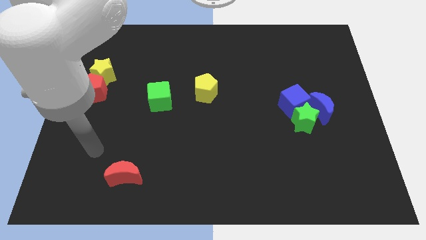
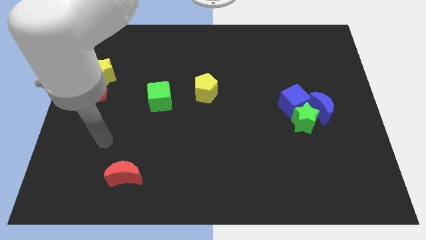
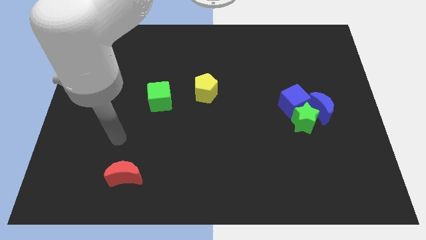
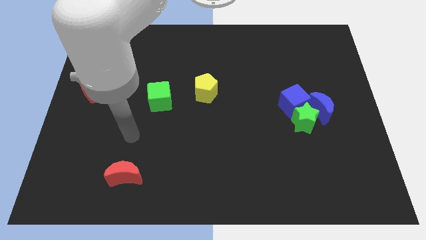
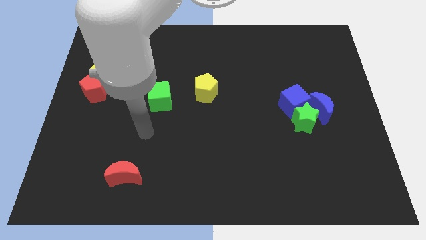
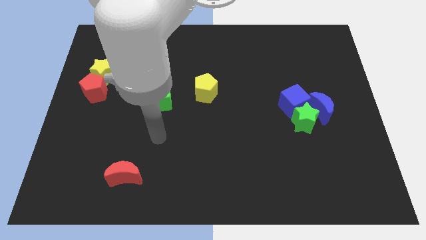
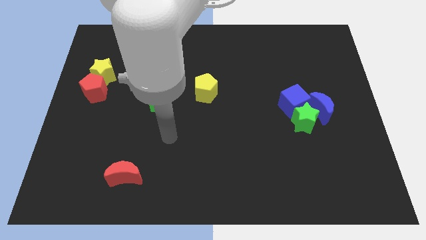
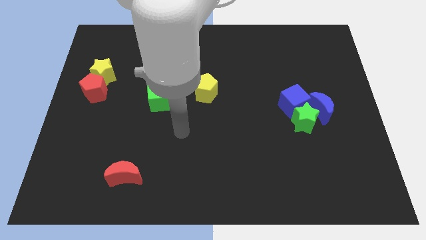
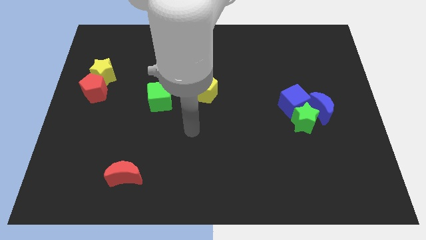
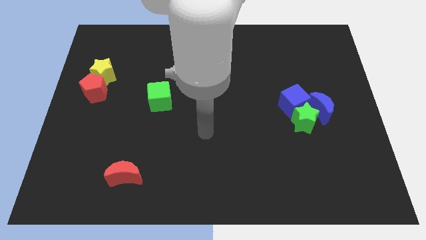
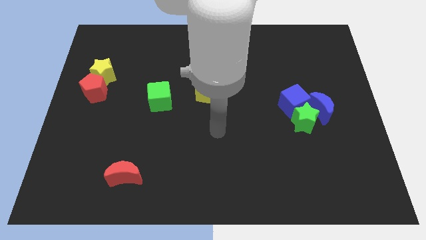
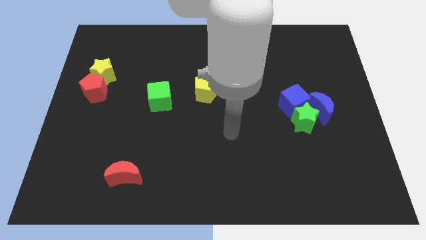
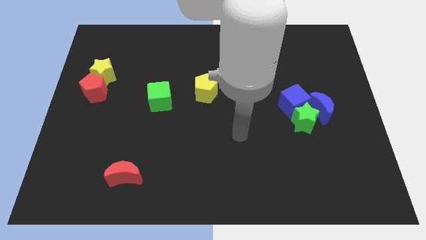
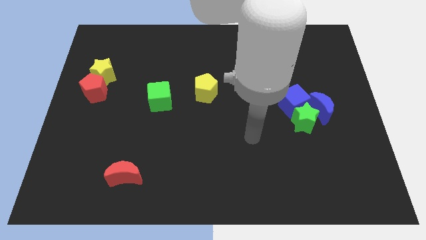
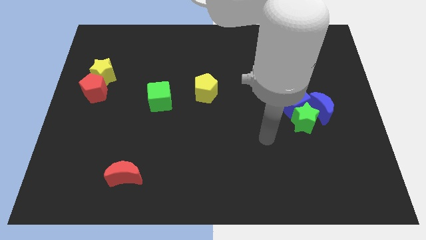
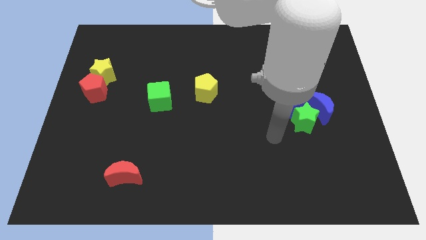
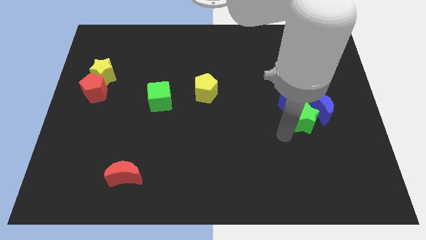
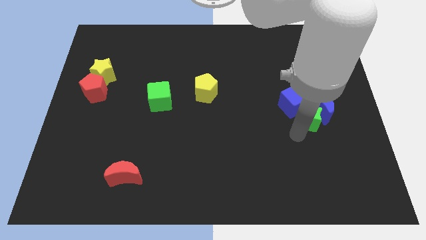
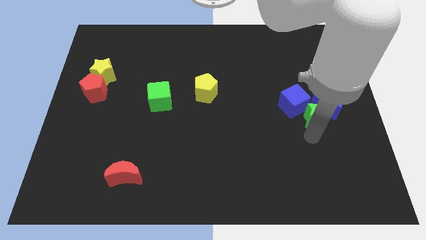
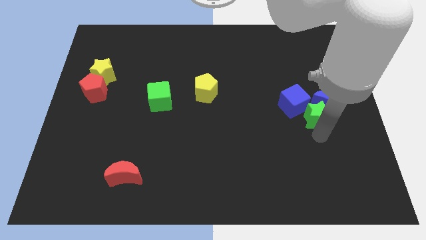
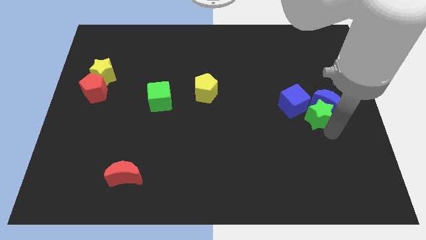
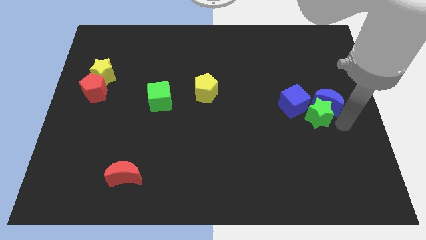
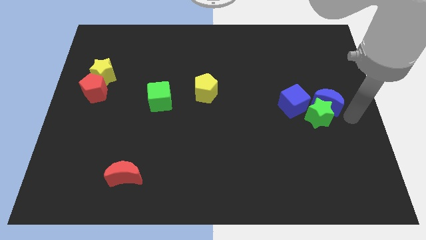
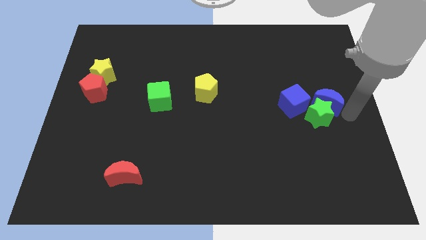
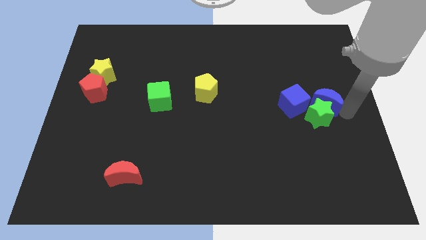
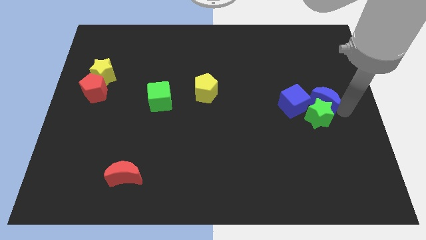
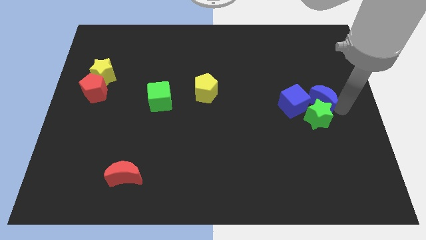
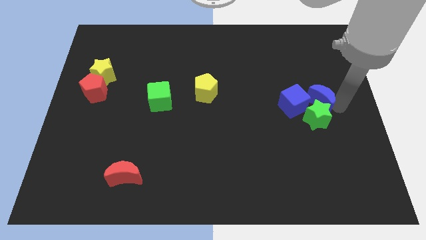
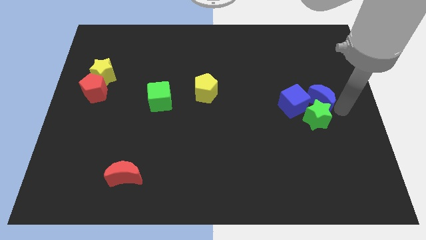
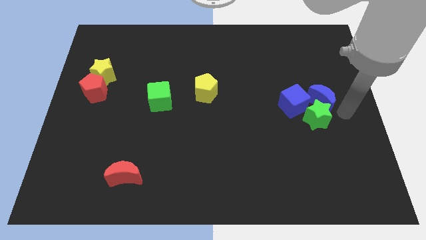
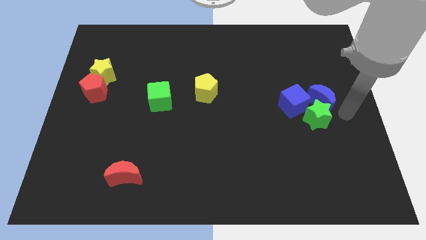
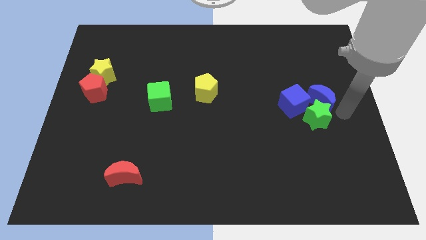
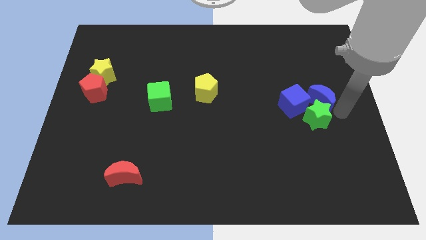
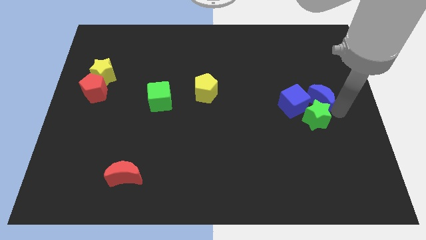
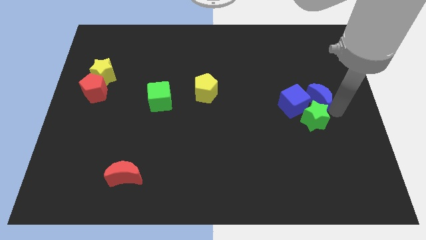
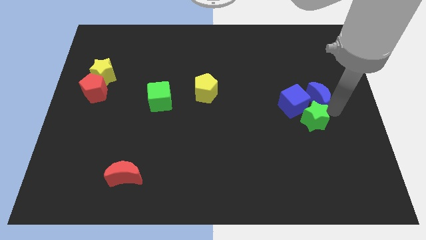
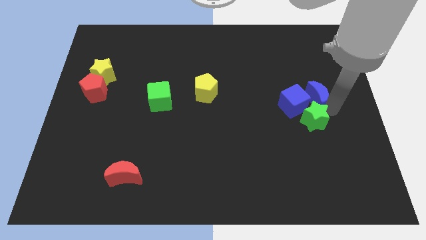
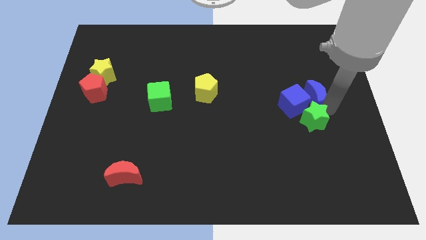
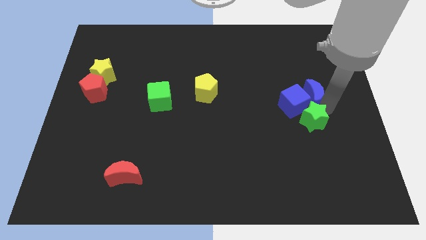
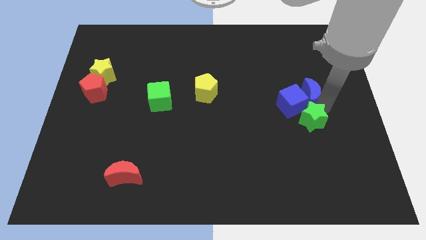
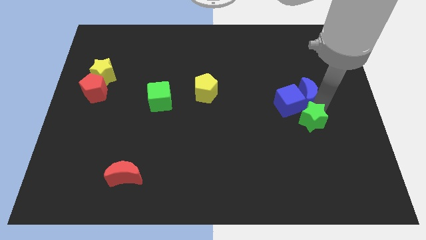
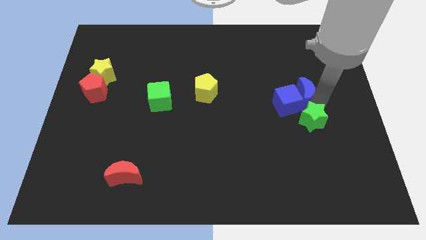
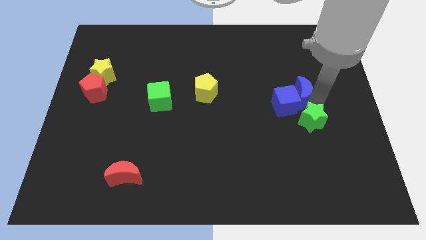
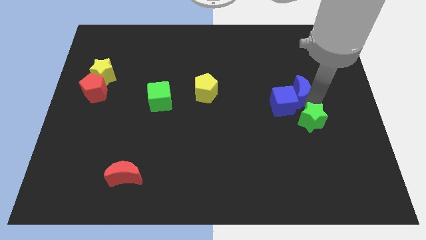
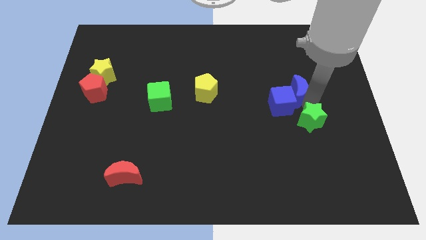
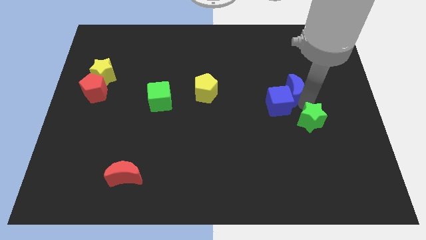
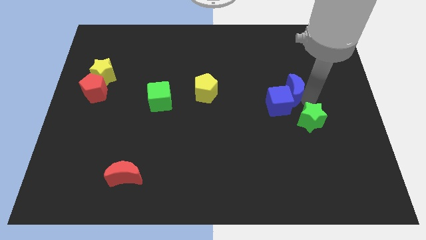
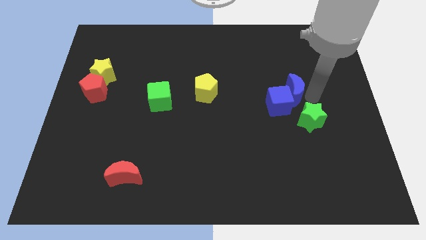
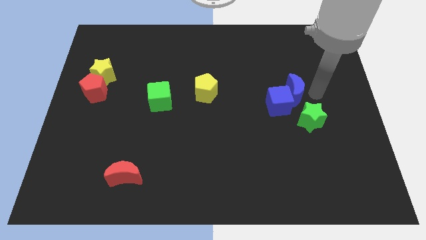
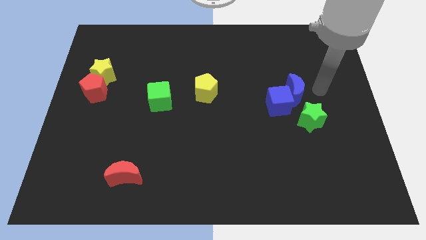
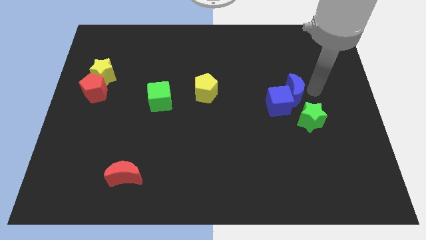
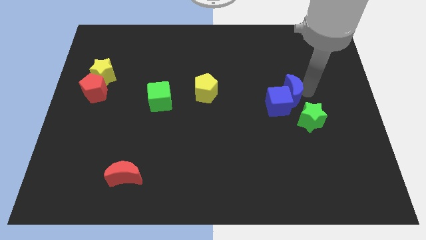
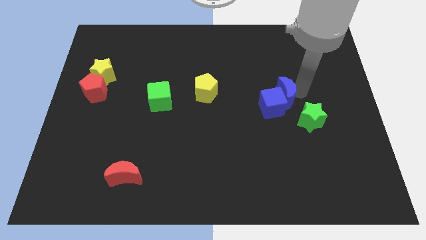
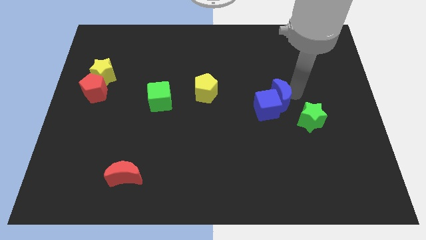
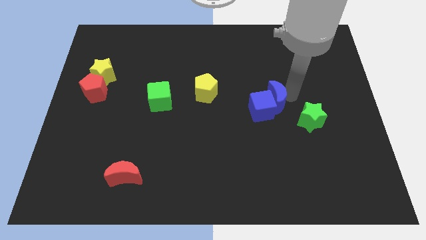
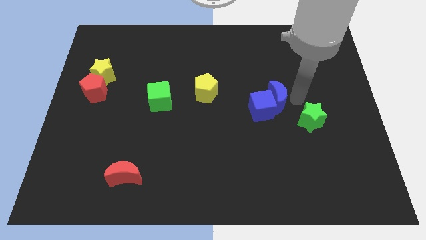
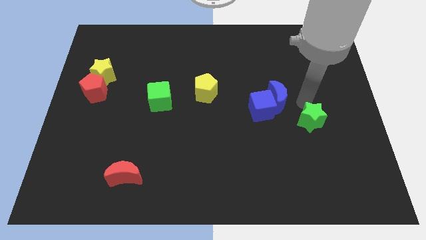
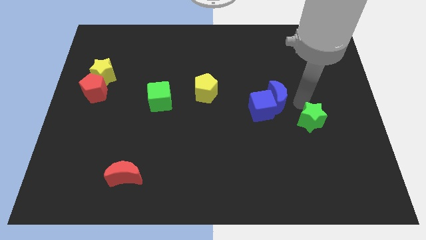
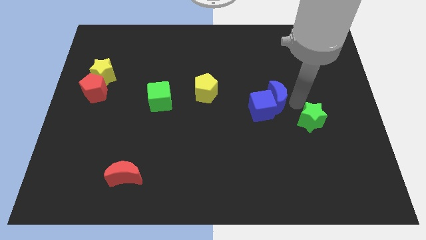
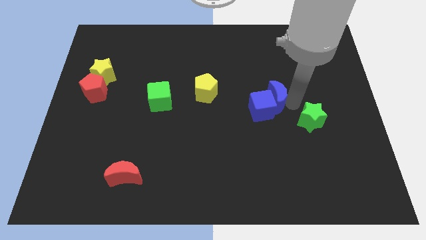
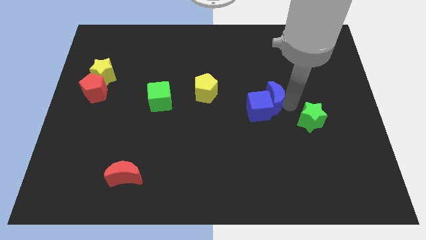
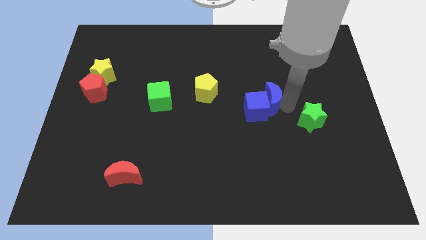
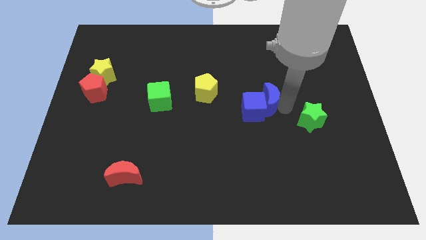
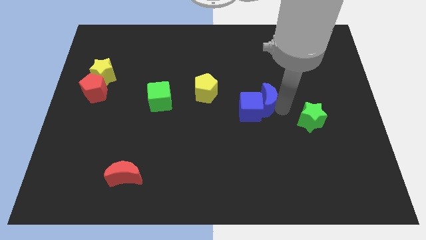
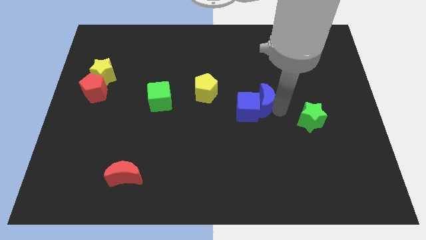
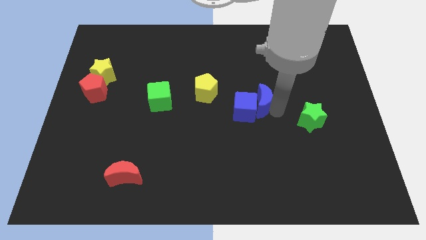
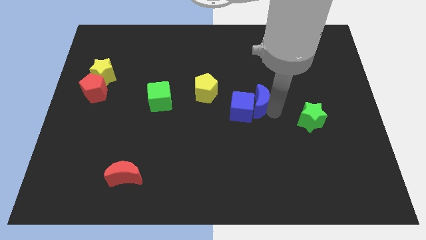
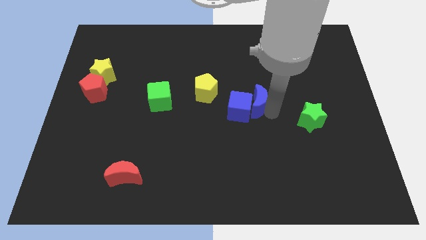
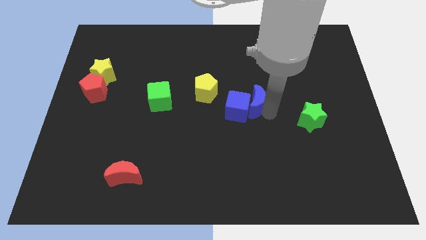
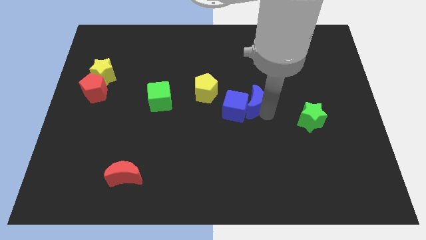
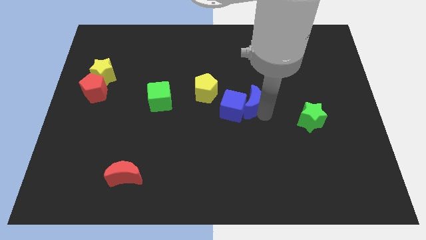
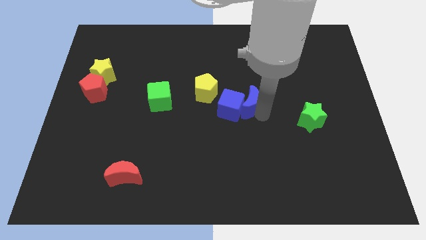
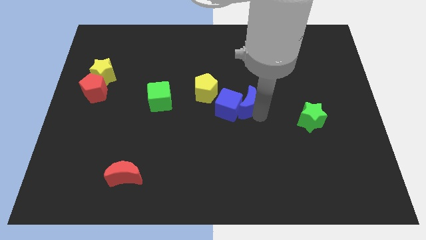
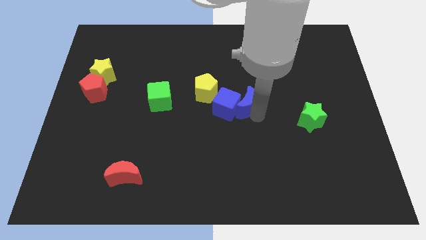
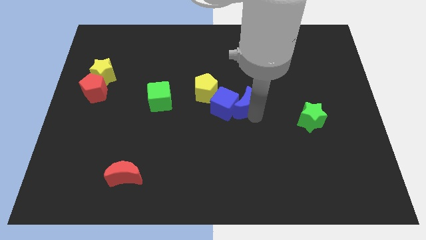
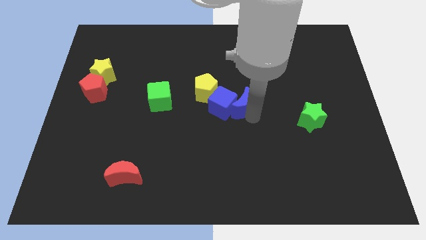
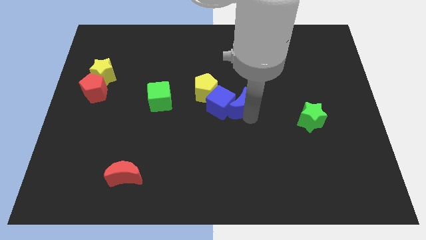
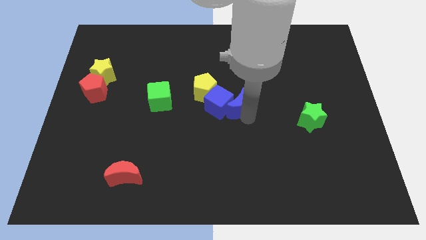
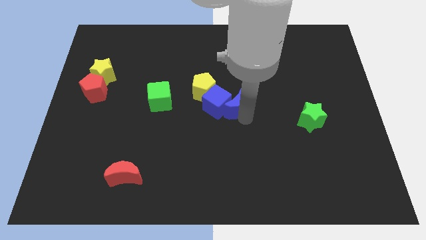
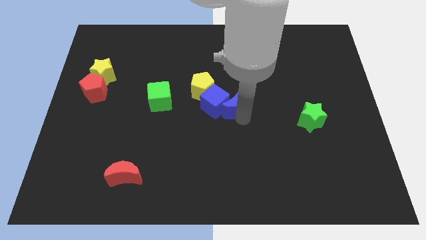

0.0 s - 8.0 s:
slide the blue moon to the left
